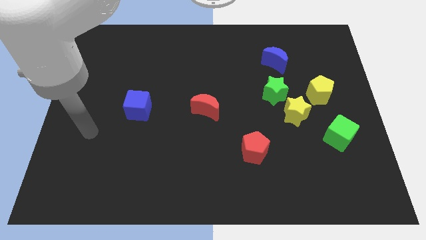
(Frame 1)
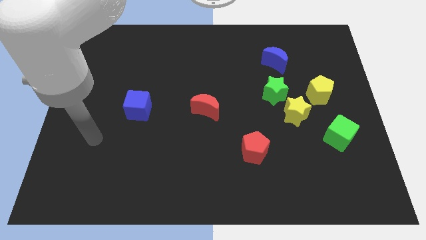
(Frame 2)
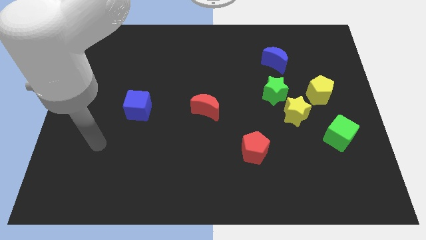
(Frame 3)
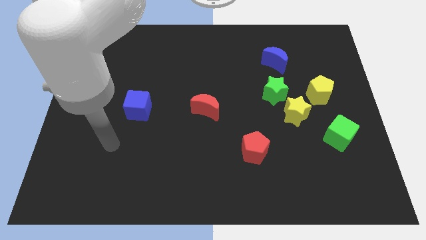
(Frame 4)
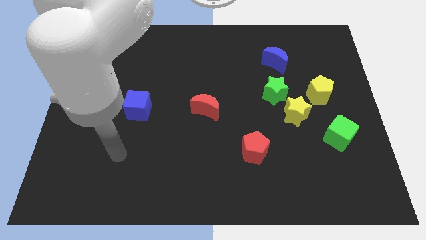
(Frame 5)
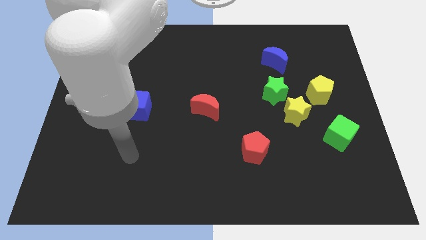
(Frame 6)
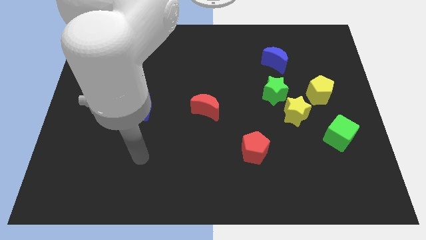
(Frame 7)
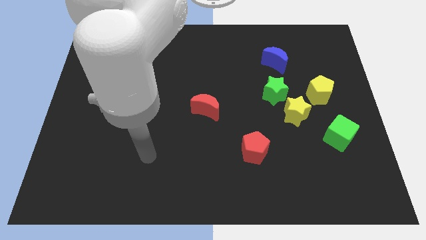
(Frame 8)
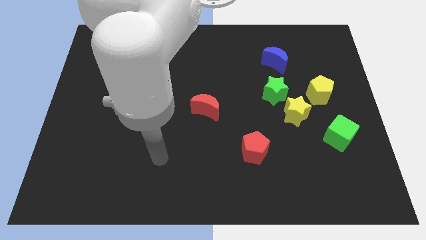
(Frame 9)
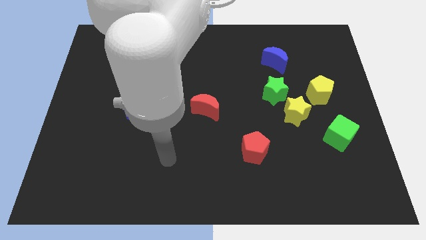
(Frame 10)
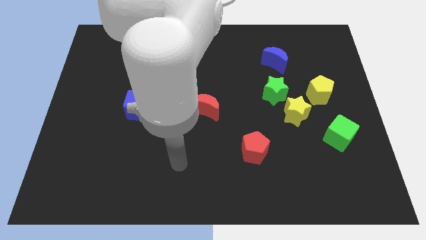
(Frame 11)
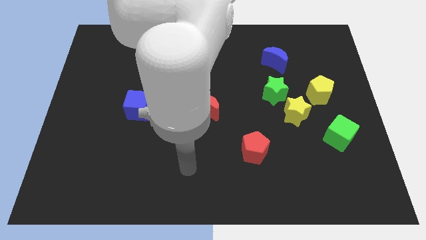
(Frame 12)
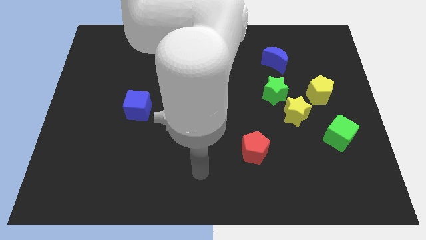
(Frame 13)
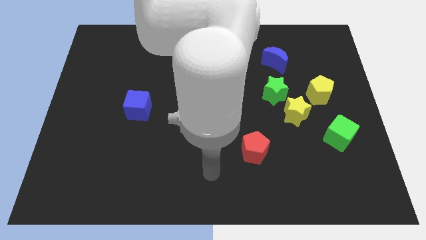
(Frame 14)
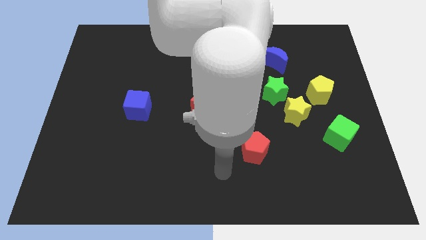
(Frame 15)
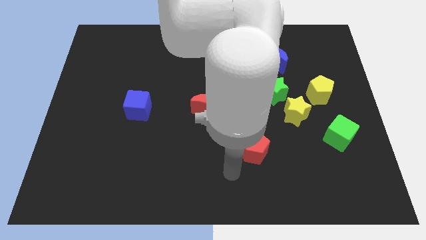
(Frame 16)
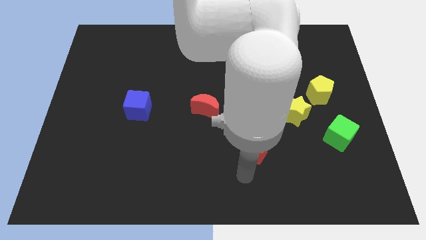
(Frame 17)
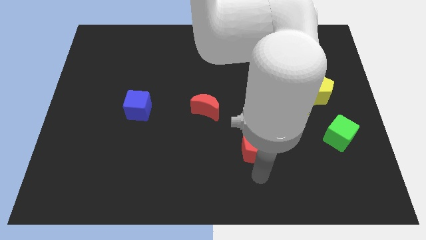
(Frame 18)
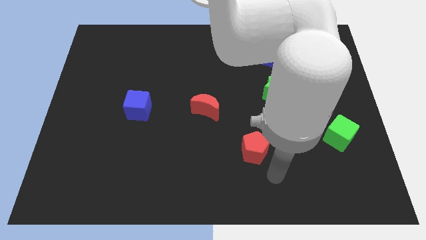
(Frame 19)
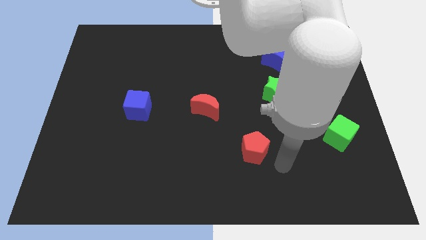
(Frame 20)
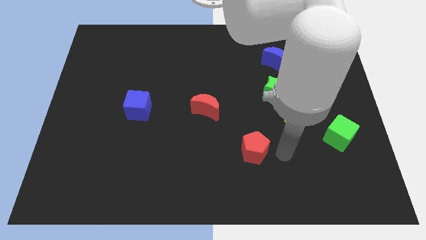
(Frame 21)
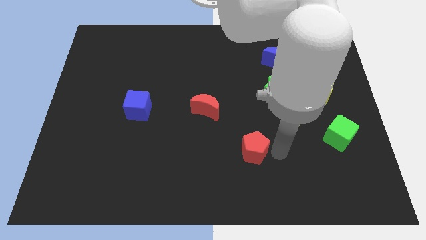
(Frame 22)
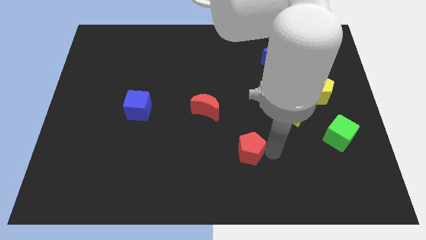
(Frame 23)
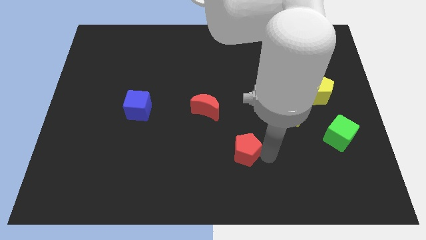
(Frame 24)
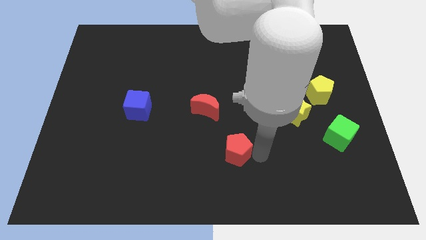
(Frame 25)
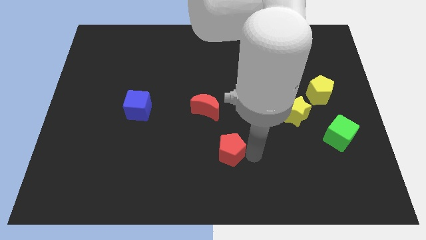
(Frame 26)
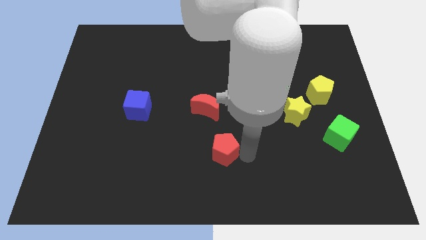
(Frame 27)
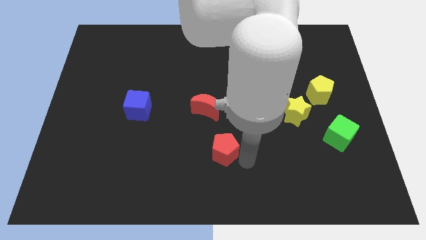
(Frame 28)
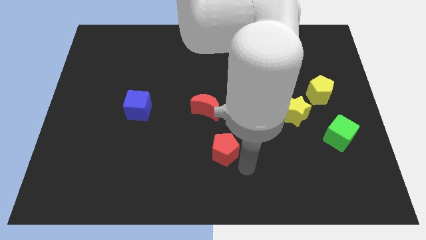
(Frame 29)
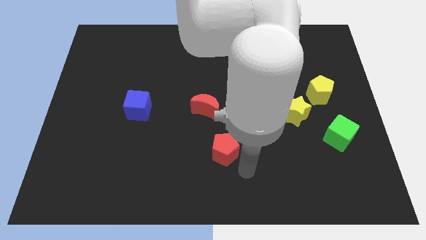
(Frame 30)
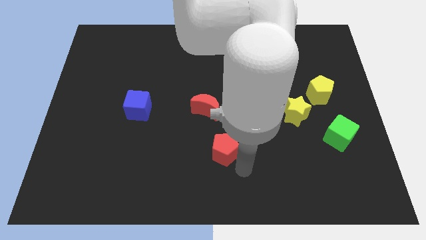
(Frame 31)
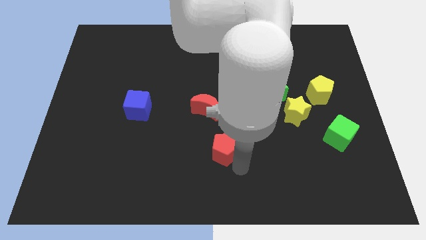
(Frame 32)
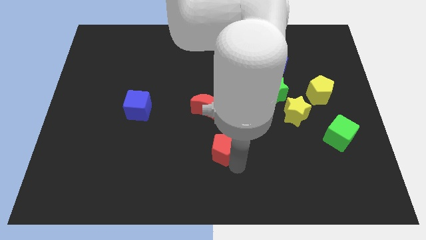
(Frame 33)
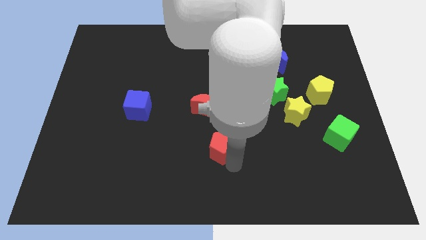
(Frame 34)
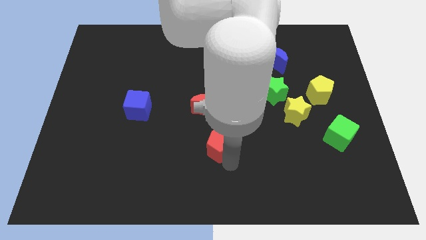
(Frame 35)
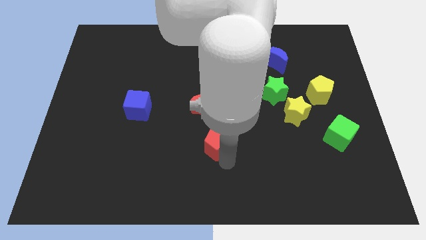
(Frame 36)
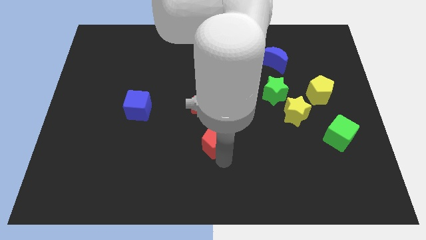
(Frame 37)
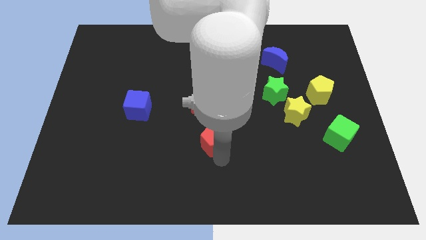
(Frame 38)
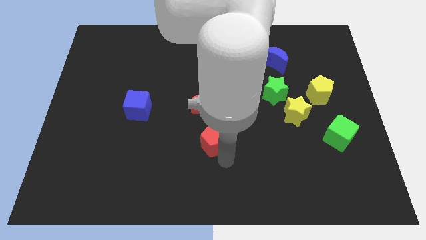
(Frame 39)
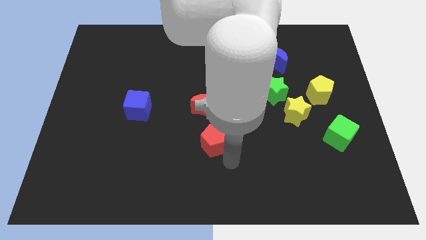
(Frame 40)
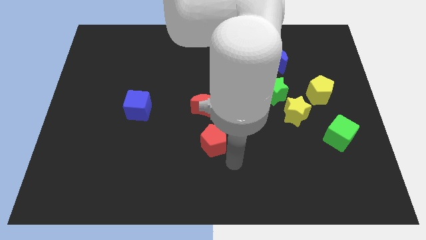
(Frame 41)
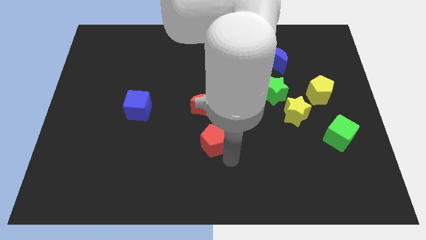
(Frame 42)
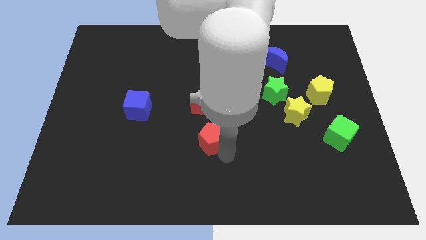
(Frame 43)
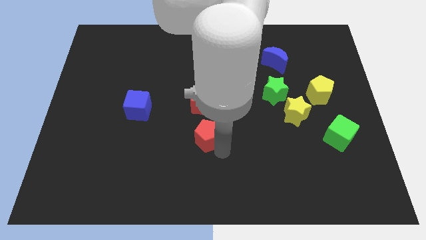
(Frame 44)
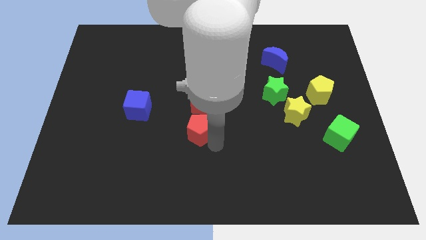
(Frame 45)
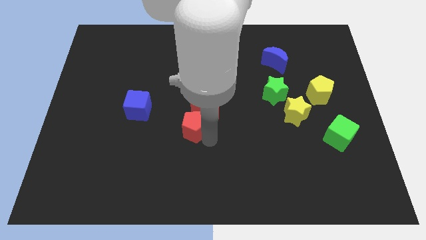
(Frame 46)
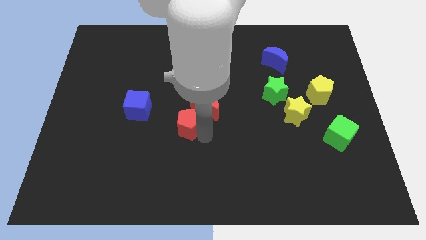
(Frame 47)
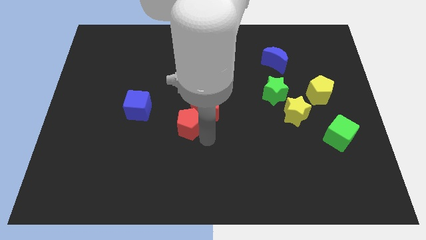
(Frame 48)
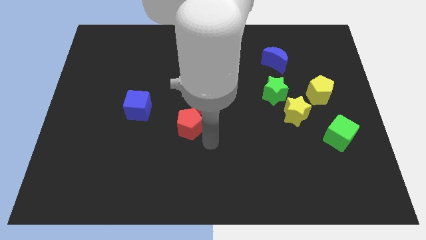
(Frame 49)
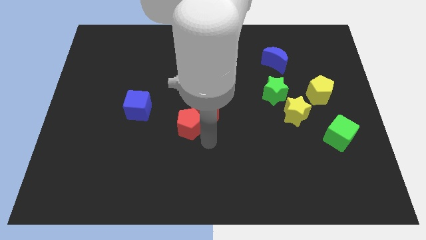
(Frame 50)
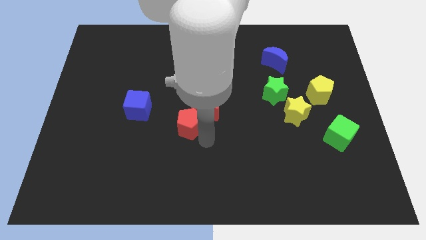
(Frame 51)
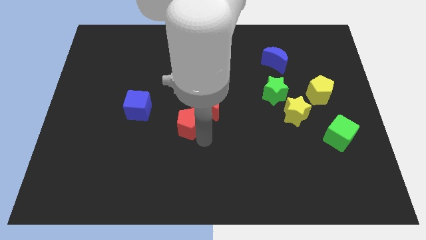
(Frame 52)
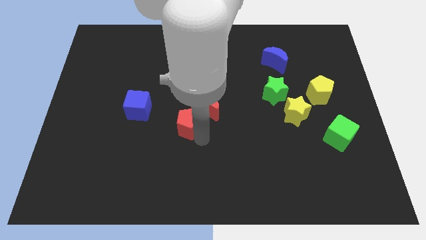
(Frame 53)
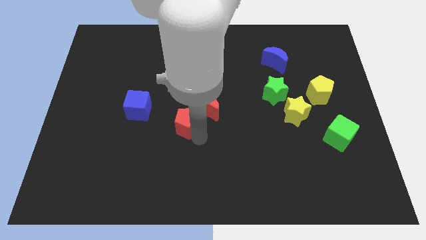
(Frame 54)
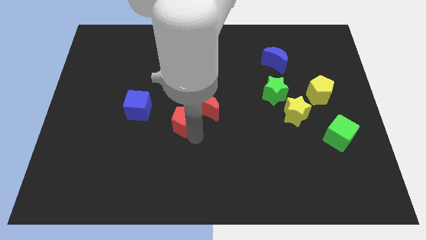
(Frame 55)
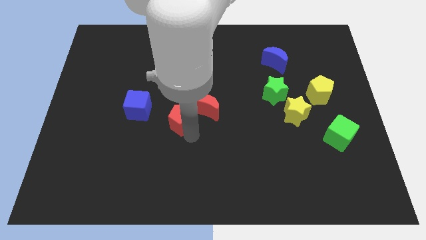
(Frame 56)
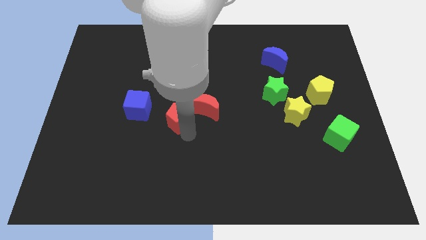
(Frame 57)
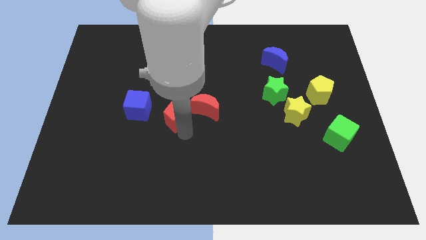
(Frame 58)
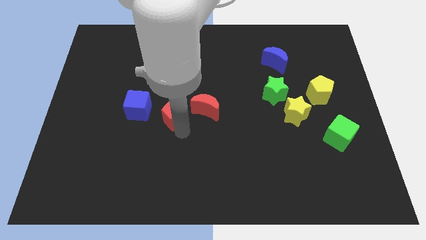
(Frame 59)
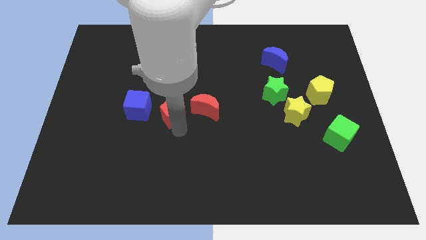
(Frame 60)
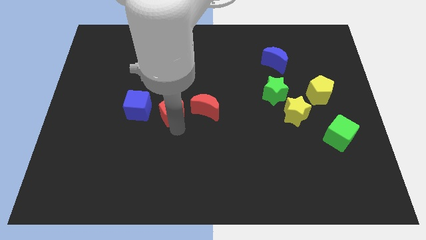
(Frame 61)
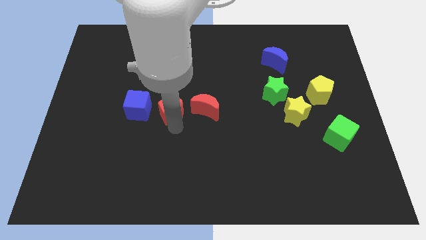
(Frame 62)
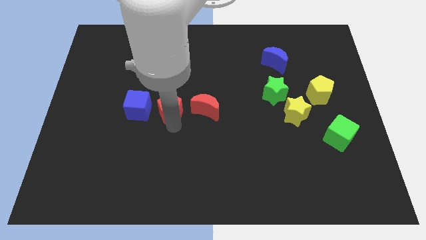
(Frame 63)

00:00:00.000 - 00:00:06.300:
slide the red pentagon up and then to the left

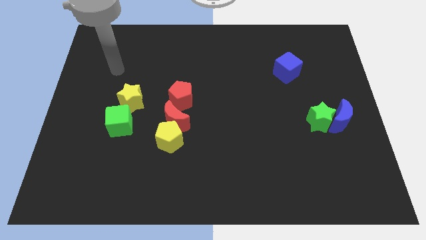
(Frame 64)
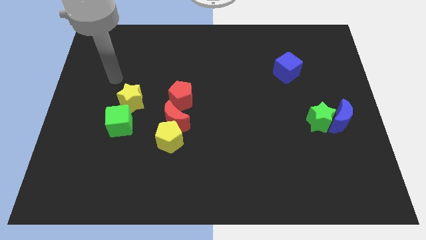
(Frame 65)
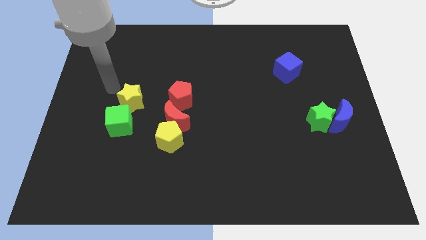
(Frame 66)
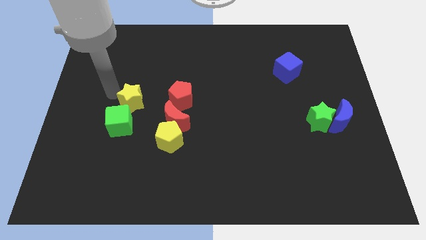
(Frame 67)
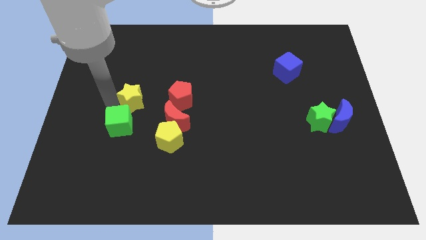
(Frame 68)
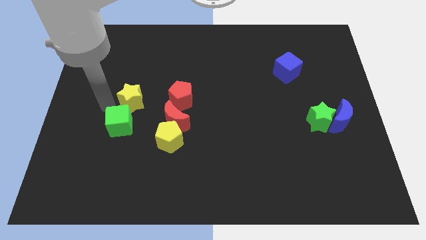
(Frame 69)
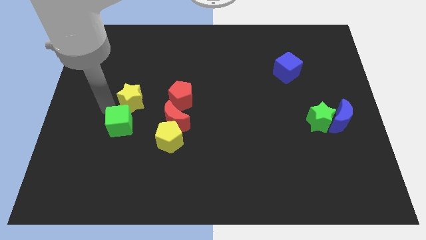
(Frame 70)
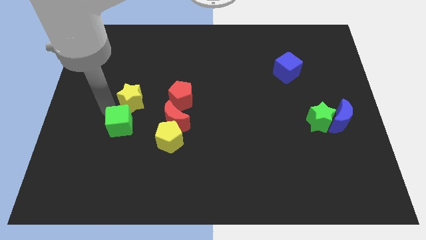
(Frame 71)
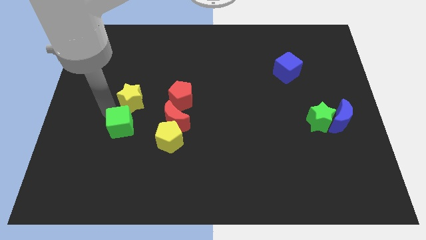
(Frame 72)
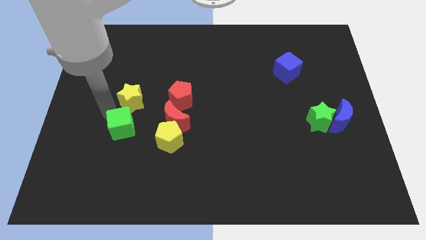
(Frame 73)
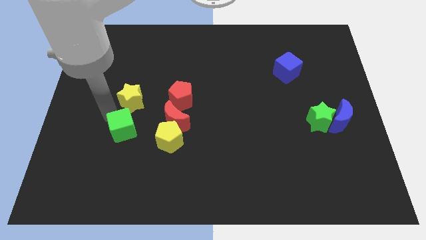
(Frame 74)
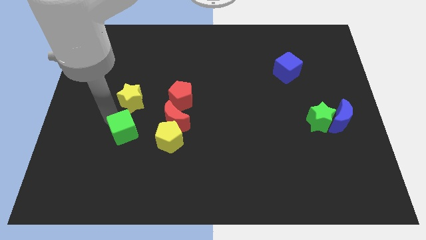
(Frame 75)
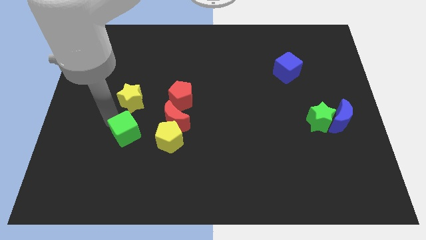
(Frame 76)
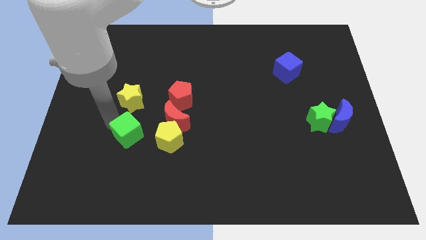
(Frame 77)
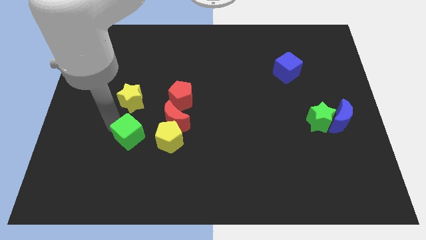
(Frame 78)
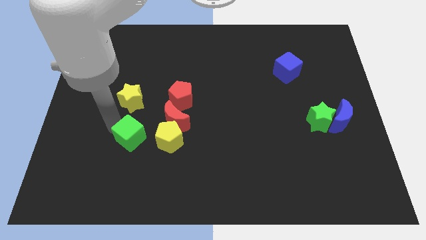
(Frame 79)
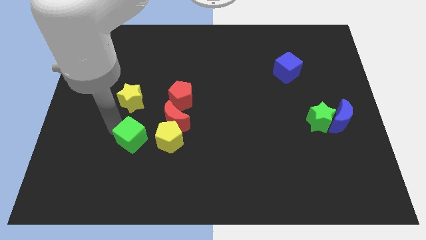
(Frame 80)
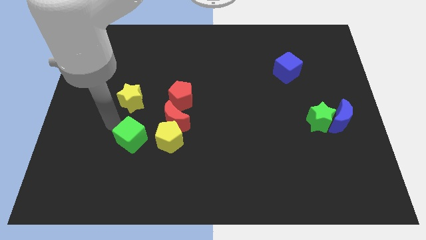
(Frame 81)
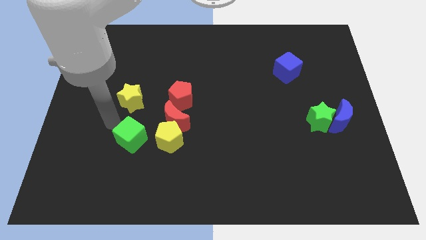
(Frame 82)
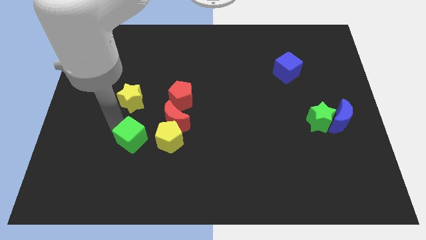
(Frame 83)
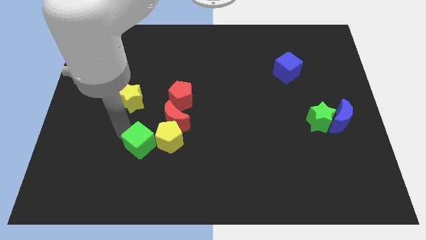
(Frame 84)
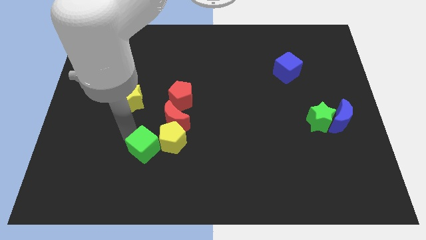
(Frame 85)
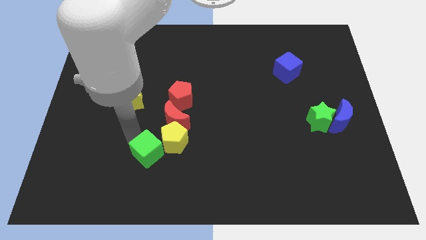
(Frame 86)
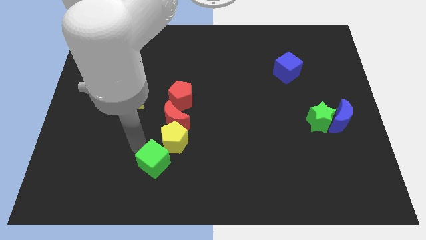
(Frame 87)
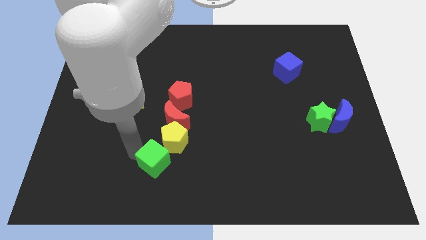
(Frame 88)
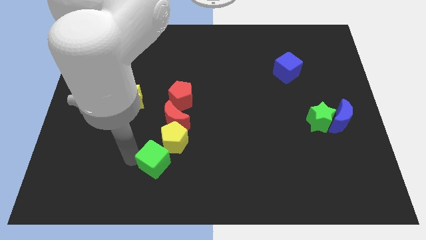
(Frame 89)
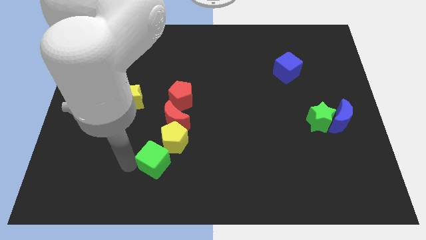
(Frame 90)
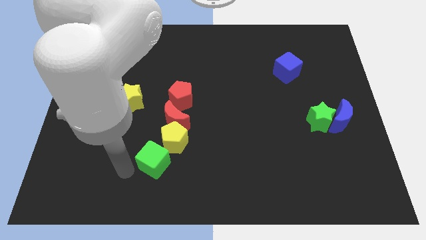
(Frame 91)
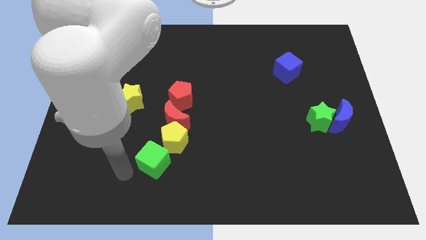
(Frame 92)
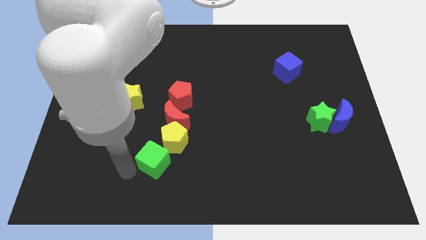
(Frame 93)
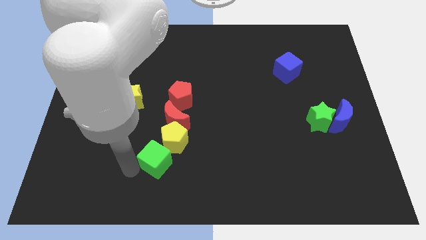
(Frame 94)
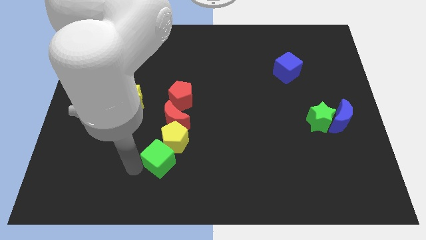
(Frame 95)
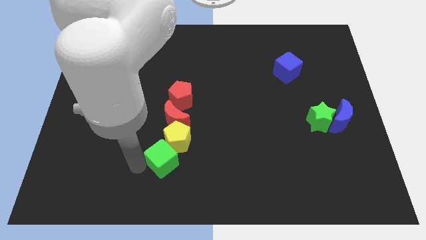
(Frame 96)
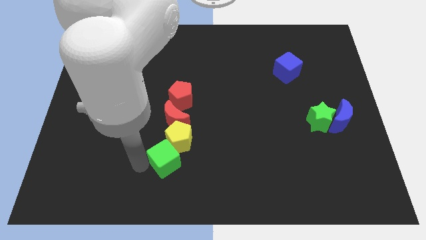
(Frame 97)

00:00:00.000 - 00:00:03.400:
move the green cube to the right slightly
